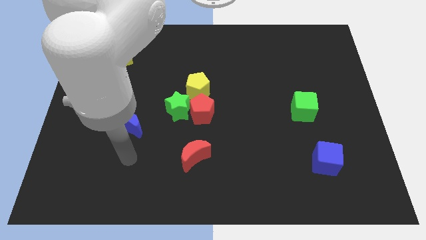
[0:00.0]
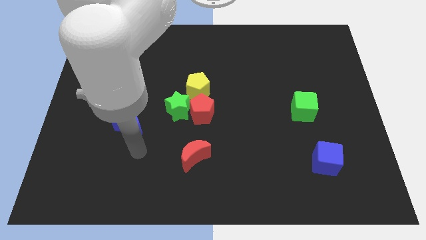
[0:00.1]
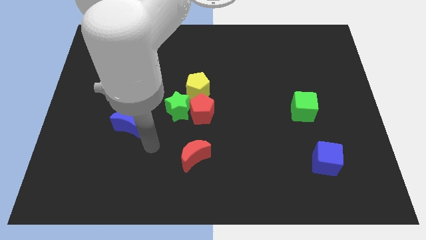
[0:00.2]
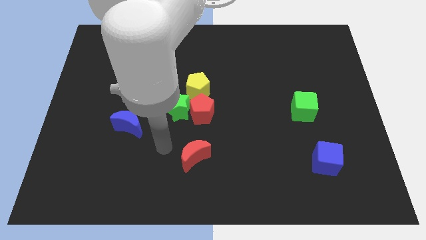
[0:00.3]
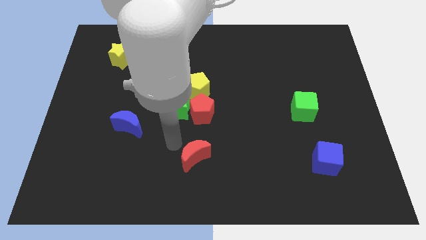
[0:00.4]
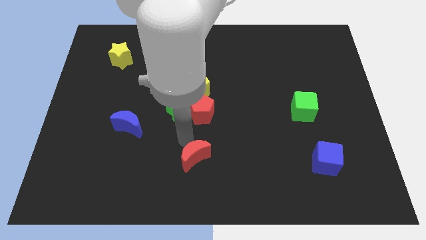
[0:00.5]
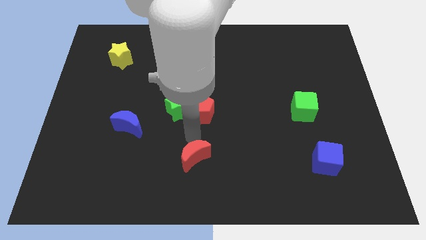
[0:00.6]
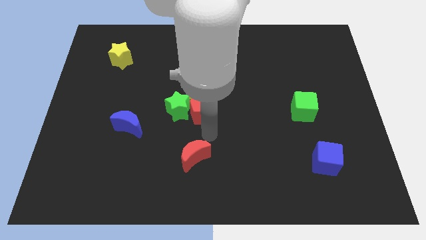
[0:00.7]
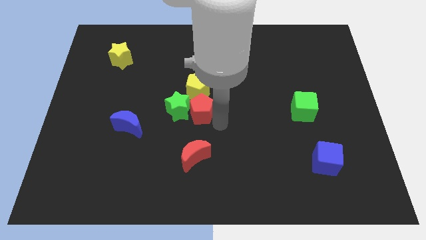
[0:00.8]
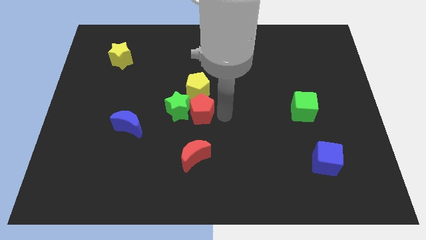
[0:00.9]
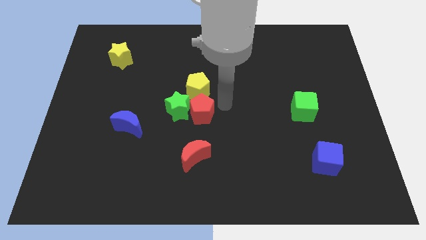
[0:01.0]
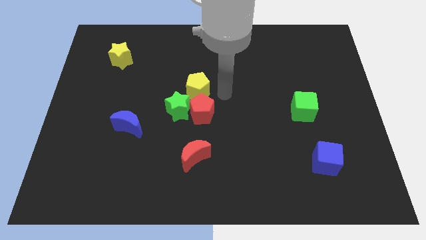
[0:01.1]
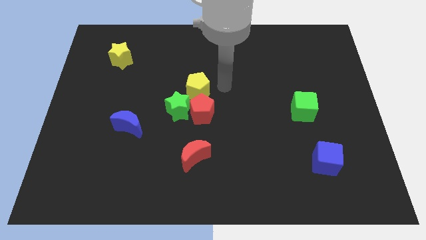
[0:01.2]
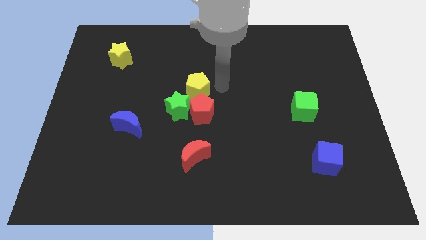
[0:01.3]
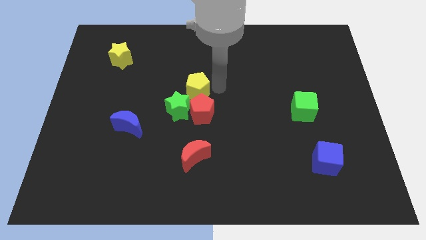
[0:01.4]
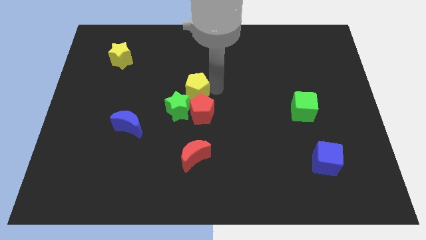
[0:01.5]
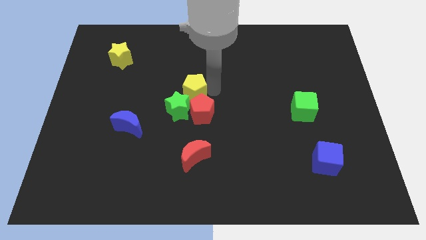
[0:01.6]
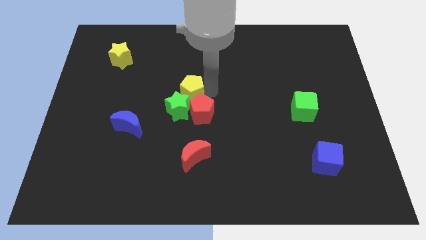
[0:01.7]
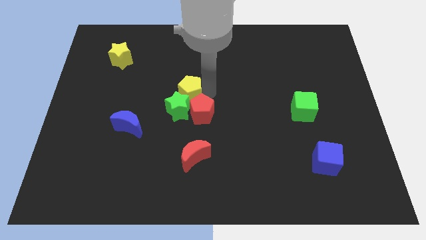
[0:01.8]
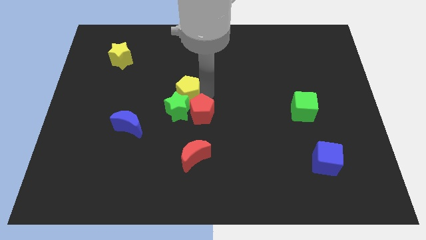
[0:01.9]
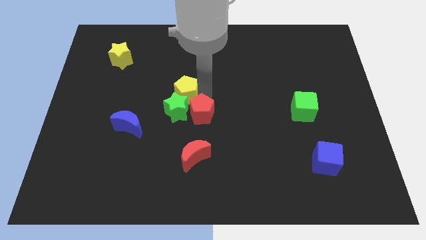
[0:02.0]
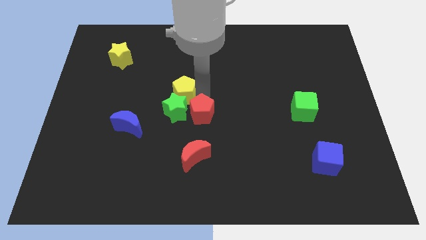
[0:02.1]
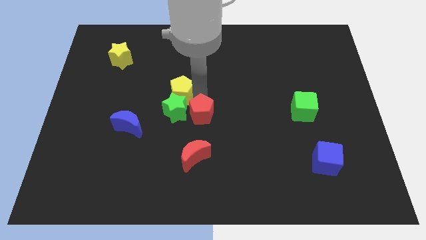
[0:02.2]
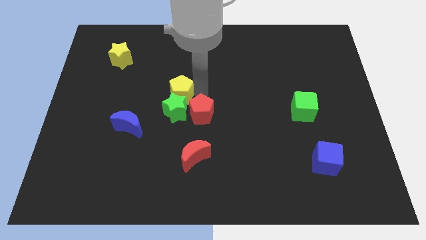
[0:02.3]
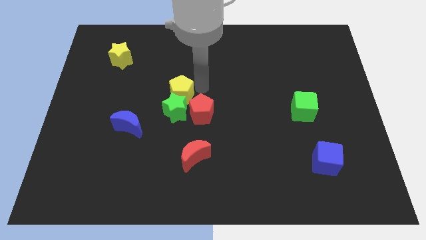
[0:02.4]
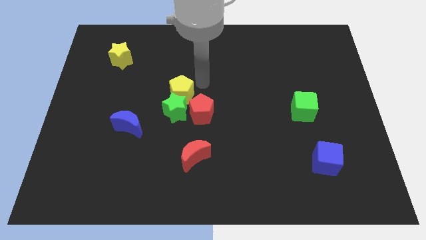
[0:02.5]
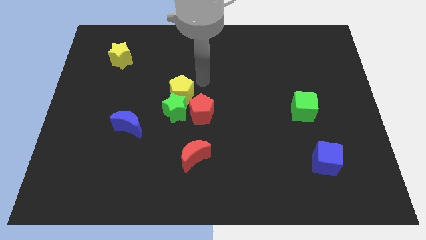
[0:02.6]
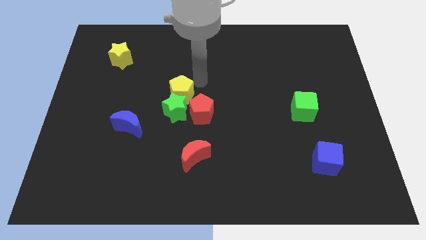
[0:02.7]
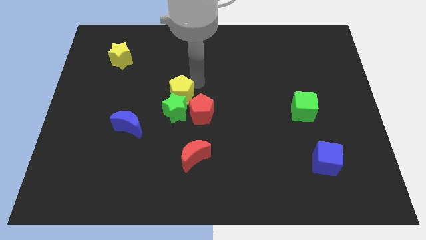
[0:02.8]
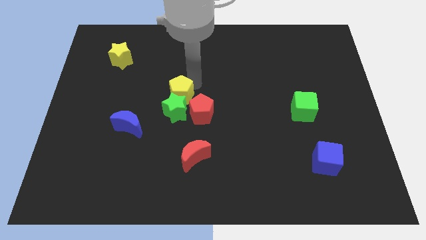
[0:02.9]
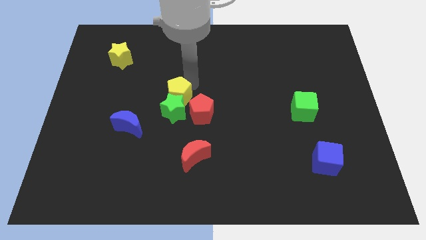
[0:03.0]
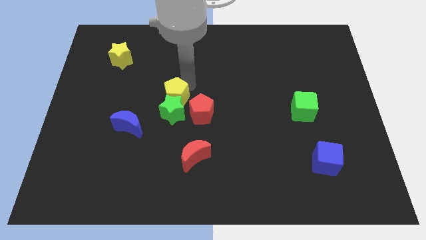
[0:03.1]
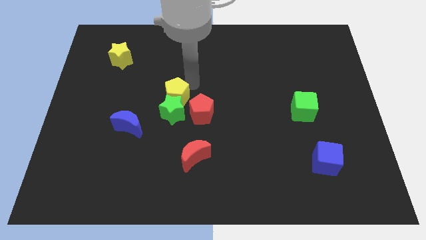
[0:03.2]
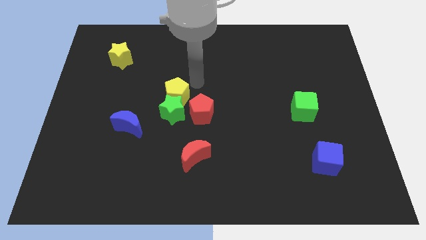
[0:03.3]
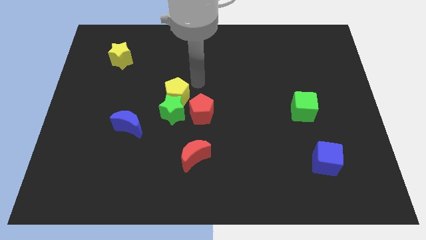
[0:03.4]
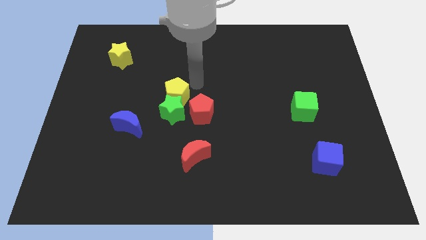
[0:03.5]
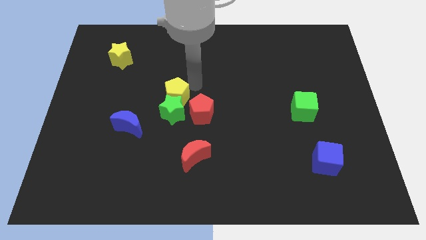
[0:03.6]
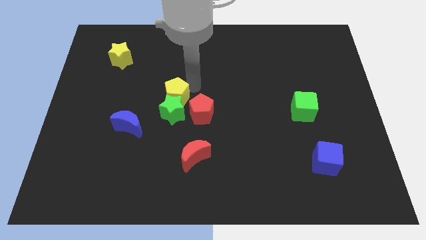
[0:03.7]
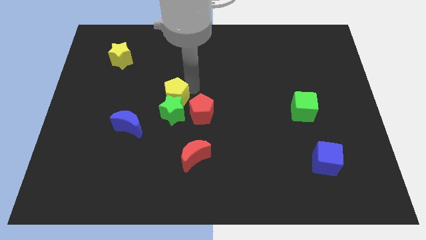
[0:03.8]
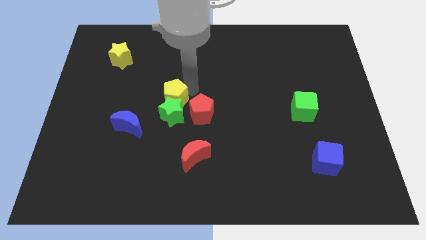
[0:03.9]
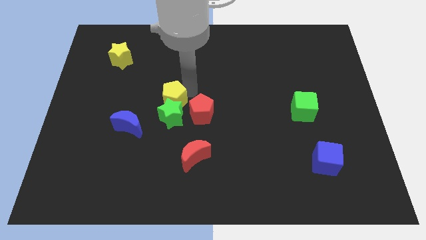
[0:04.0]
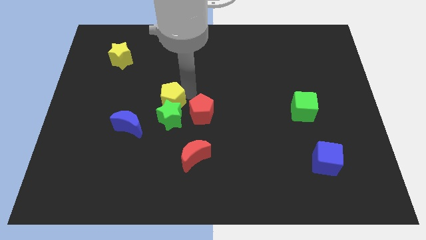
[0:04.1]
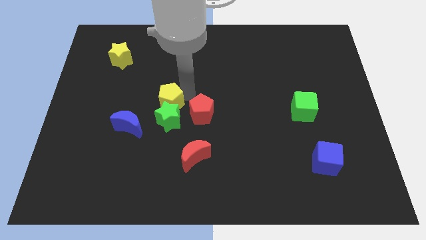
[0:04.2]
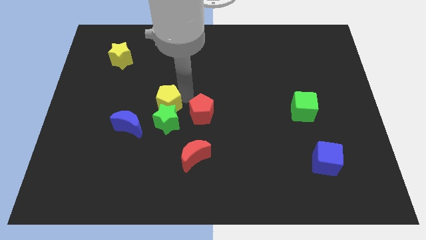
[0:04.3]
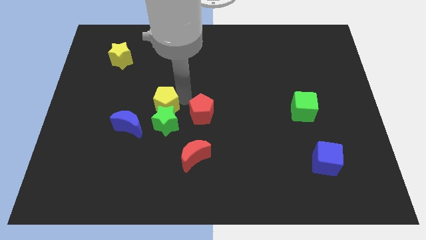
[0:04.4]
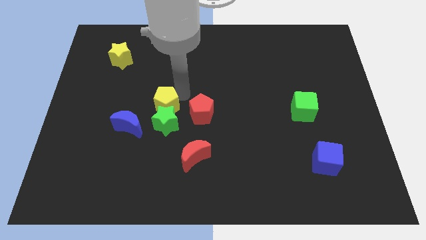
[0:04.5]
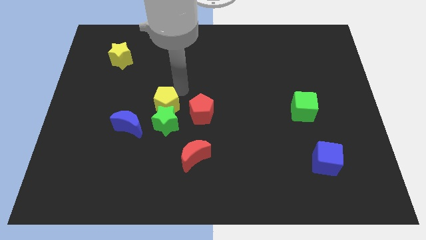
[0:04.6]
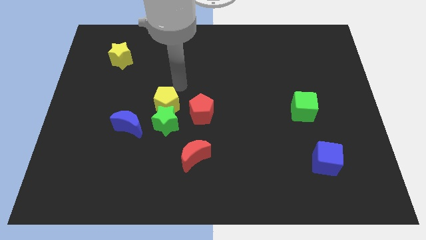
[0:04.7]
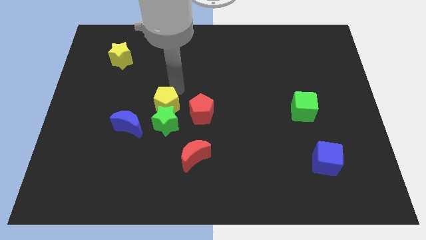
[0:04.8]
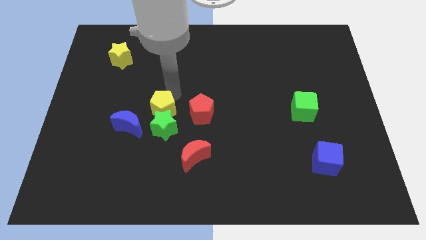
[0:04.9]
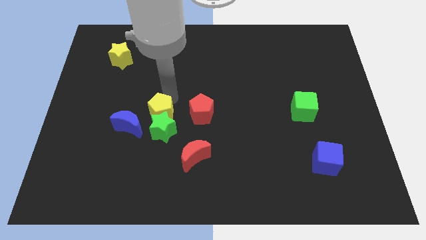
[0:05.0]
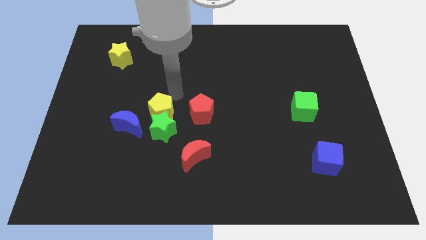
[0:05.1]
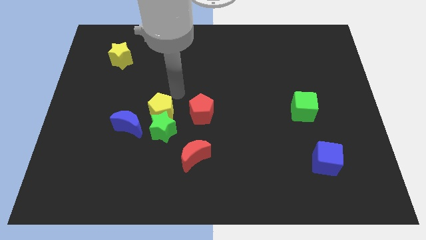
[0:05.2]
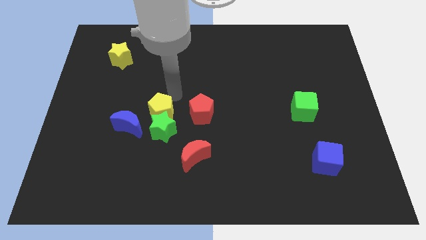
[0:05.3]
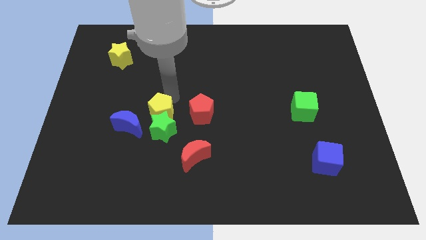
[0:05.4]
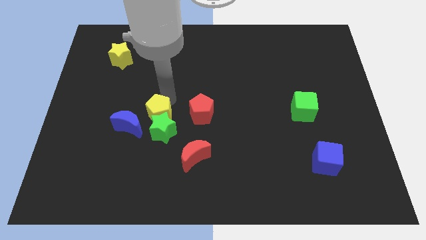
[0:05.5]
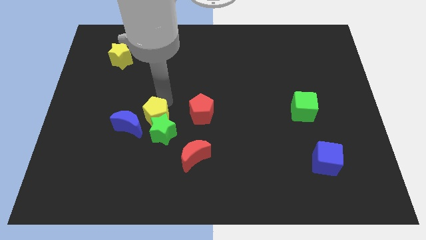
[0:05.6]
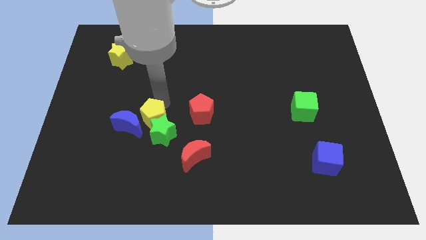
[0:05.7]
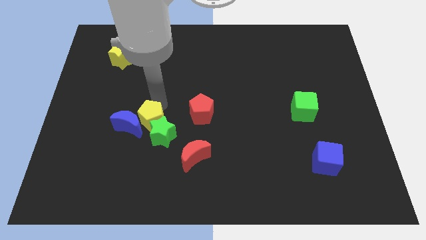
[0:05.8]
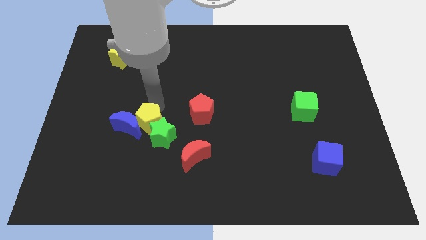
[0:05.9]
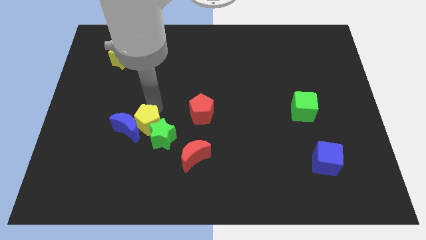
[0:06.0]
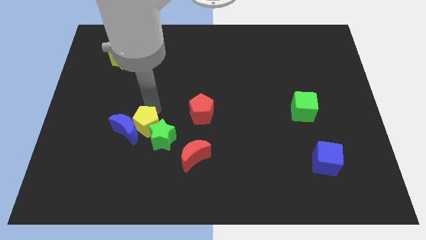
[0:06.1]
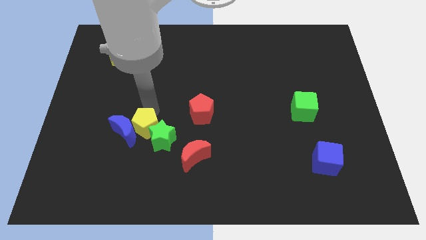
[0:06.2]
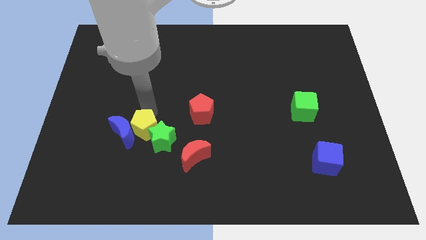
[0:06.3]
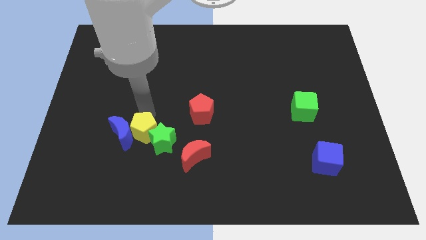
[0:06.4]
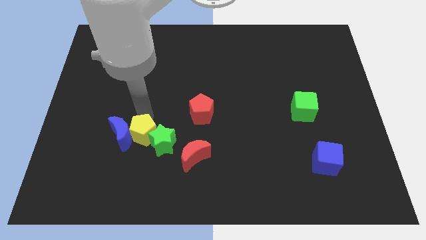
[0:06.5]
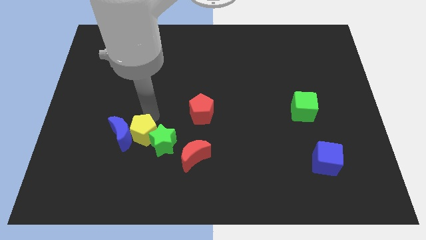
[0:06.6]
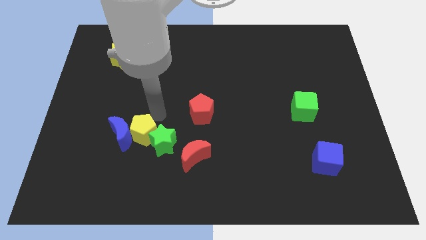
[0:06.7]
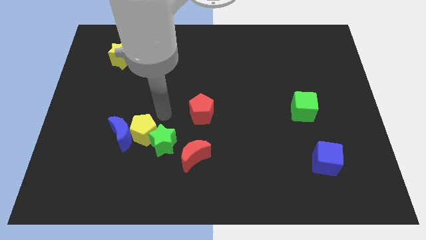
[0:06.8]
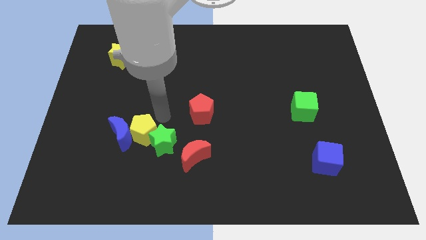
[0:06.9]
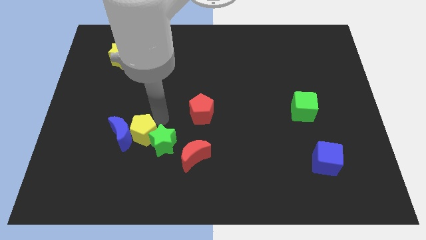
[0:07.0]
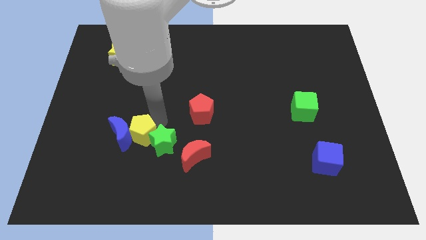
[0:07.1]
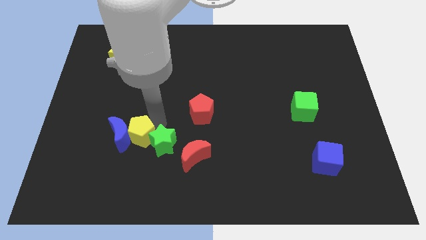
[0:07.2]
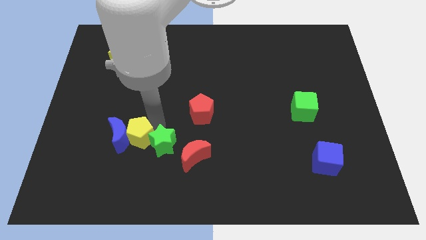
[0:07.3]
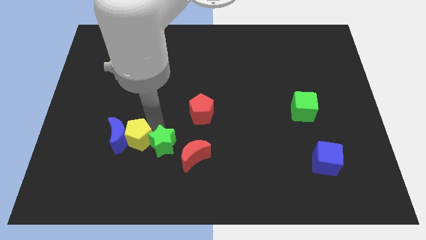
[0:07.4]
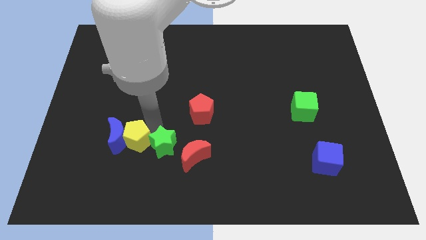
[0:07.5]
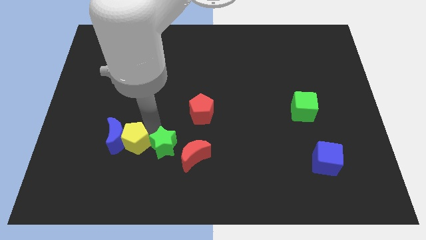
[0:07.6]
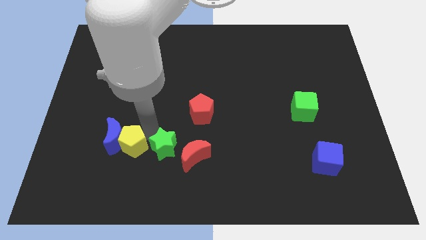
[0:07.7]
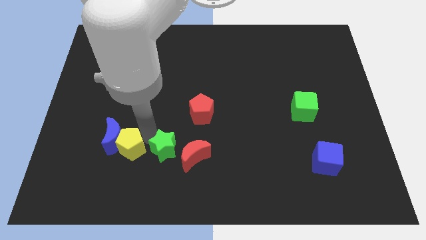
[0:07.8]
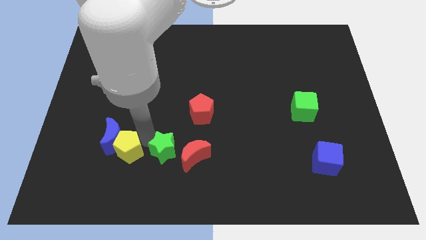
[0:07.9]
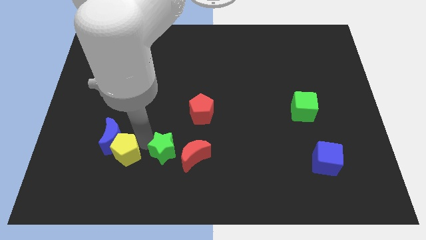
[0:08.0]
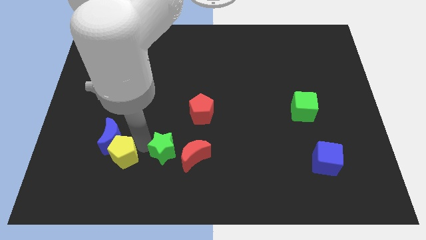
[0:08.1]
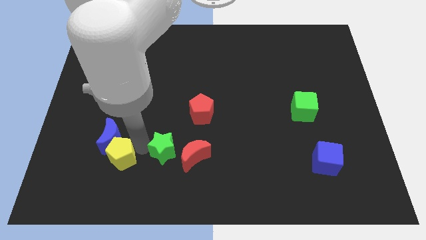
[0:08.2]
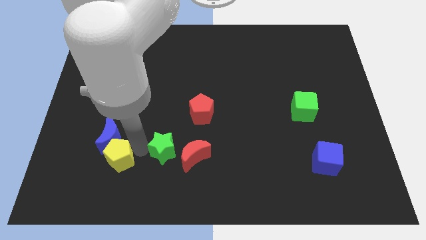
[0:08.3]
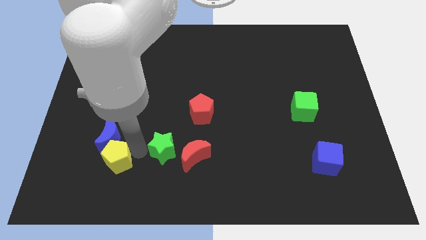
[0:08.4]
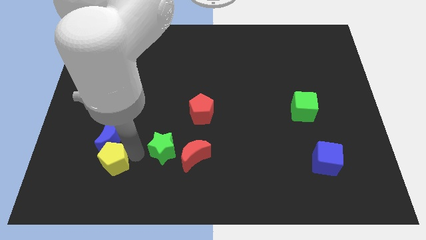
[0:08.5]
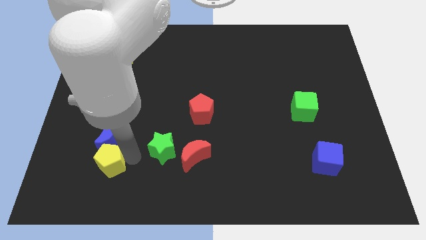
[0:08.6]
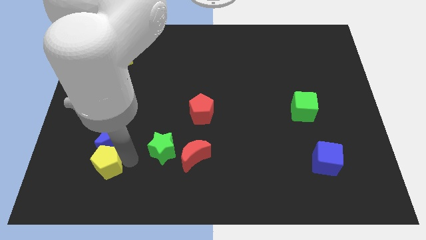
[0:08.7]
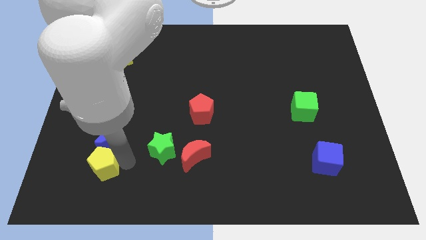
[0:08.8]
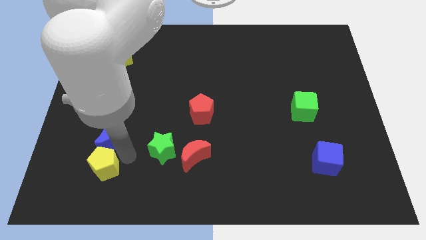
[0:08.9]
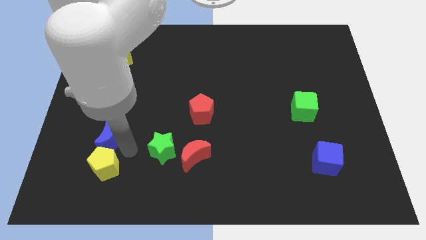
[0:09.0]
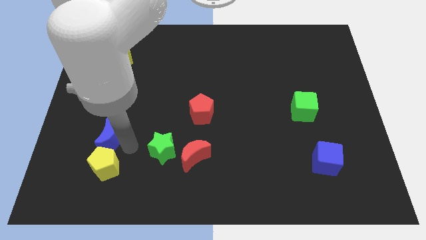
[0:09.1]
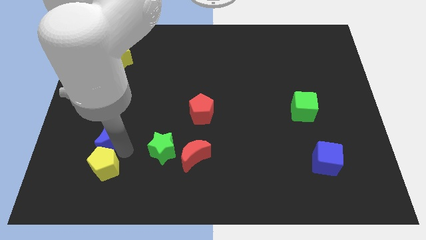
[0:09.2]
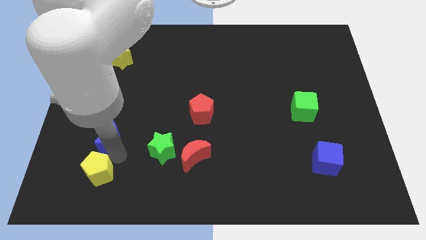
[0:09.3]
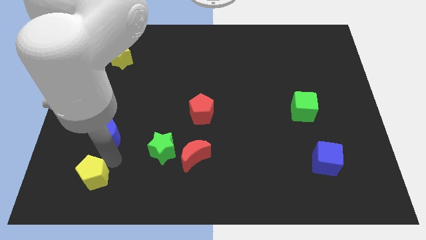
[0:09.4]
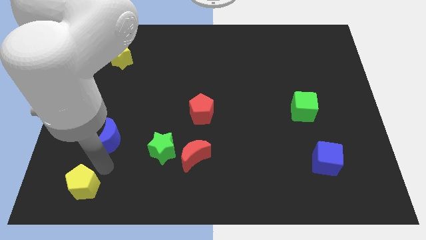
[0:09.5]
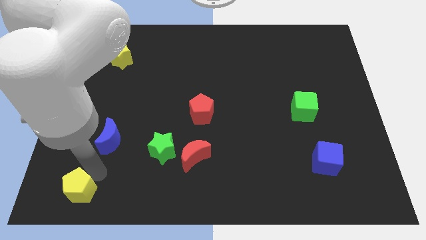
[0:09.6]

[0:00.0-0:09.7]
move the yellow pentagon to the bottom left corner
